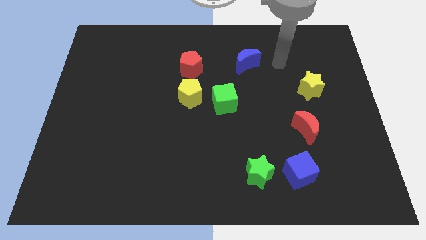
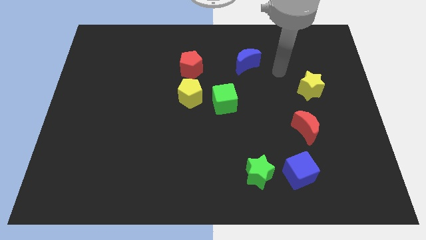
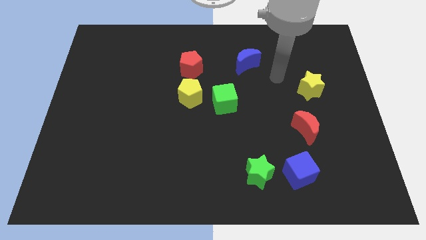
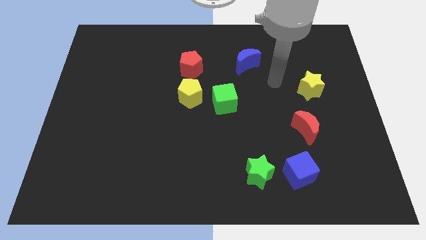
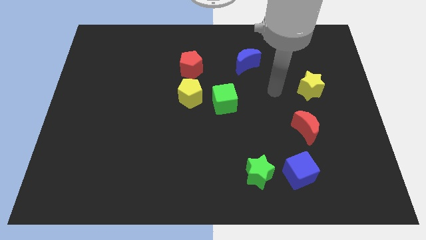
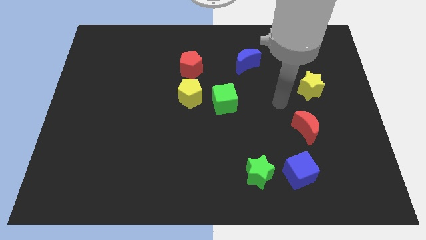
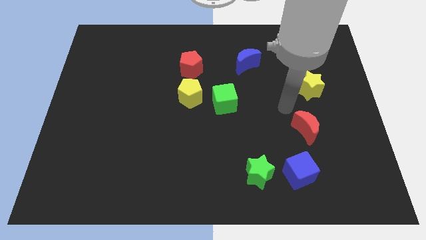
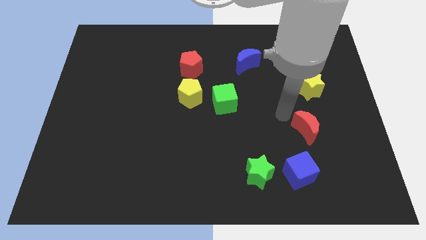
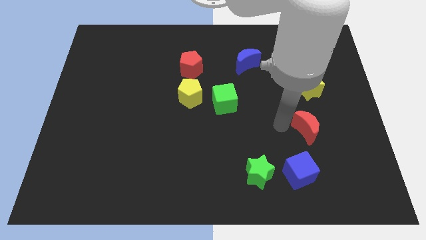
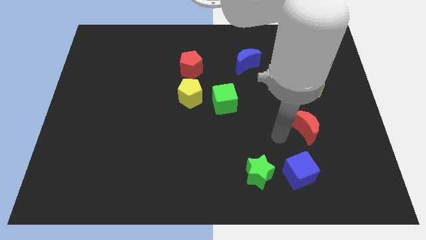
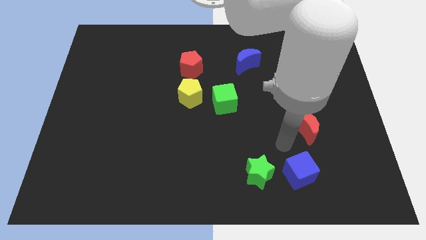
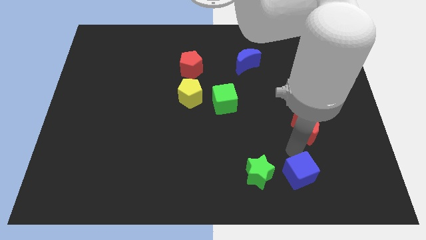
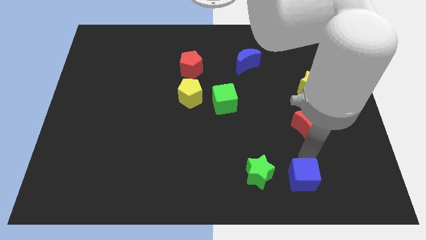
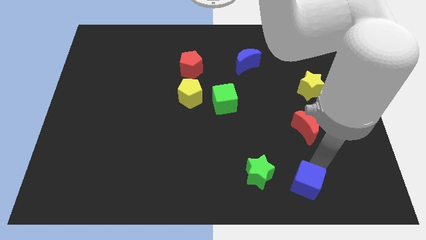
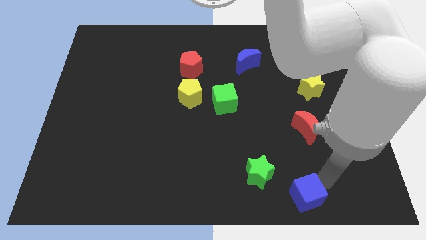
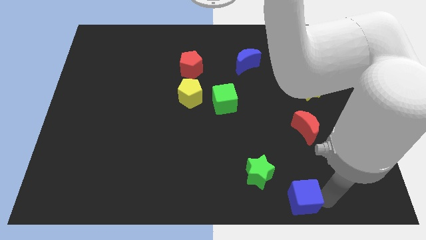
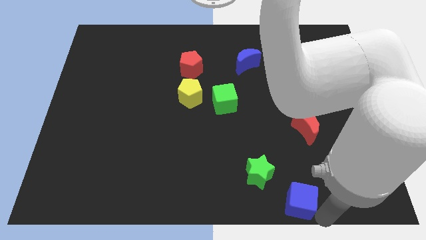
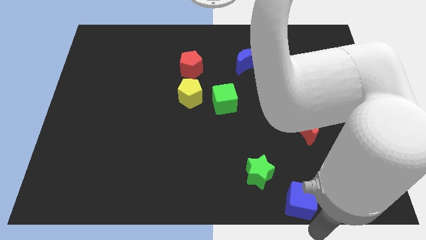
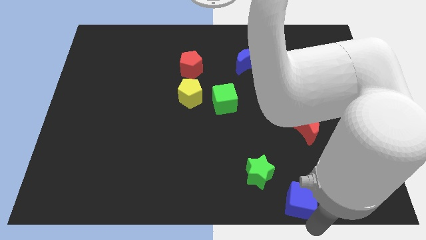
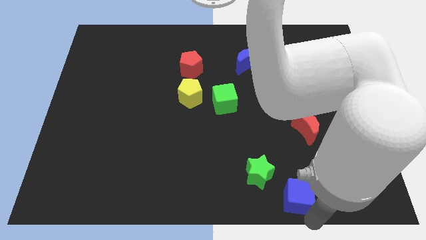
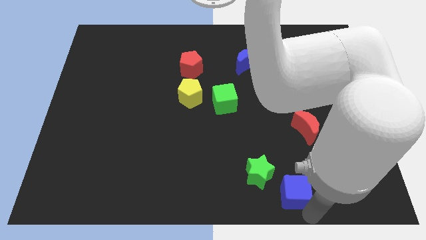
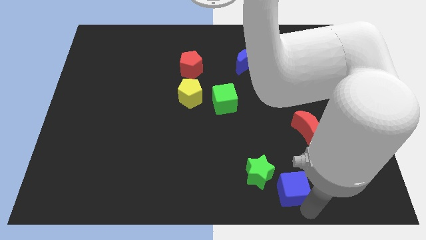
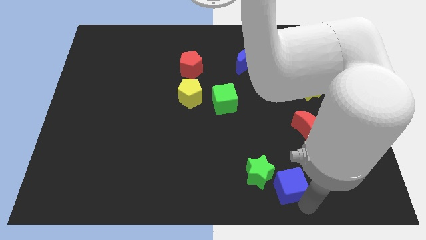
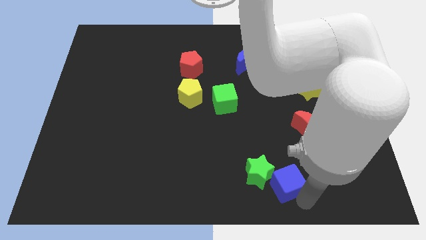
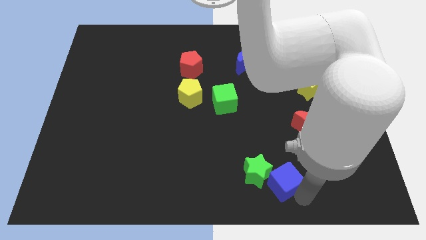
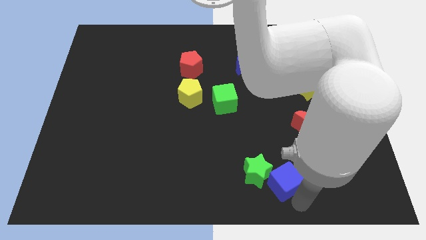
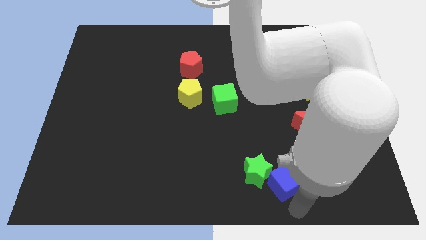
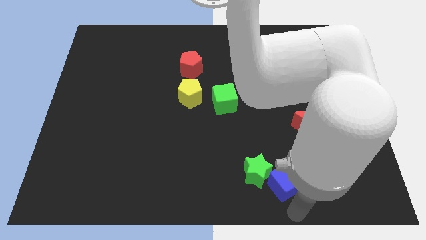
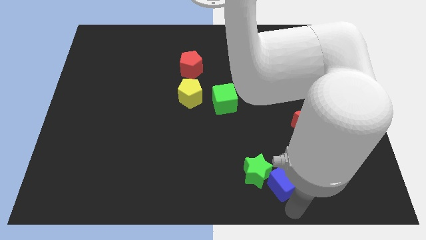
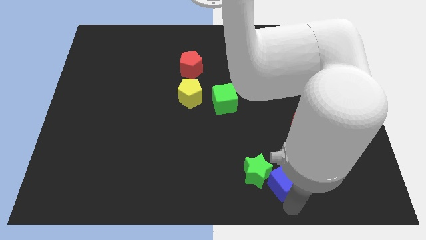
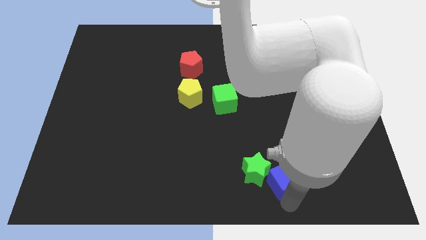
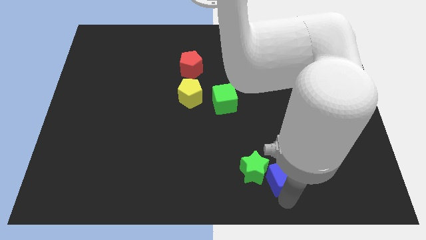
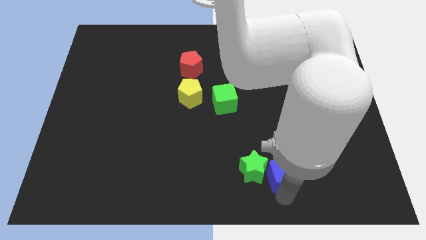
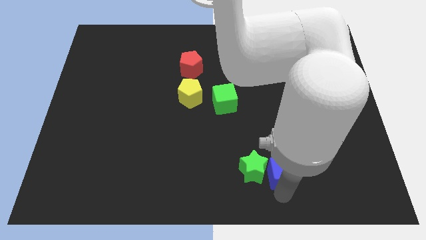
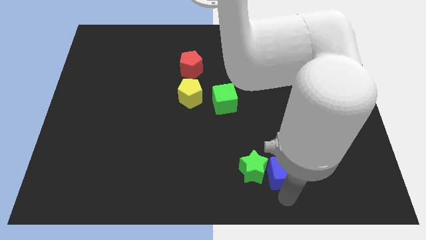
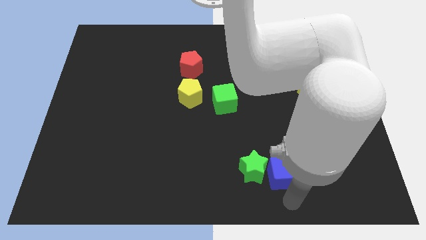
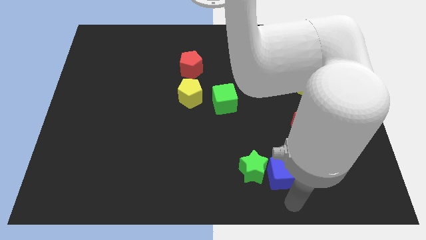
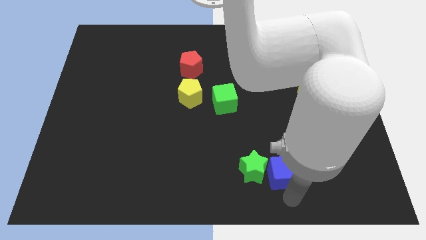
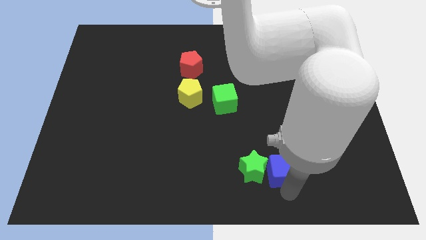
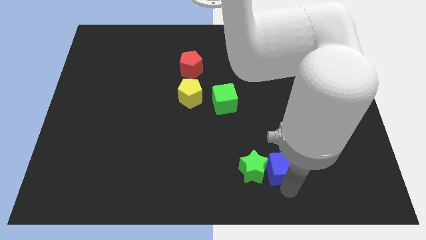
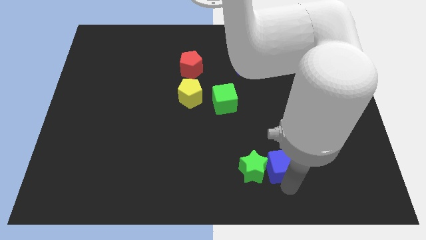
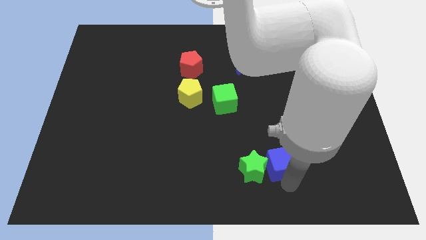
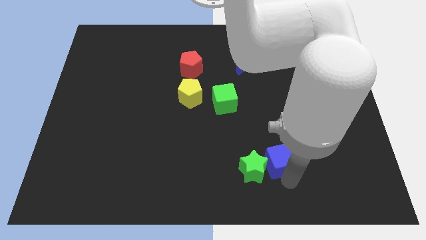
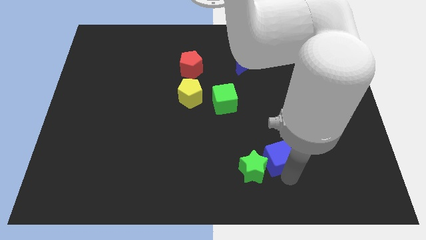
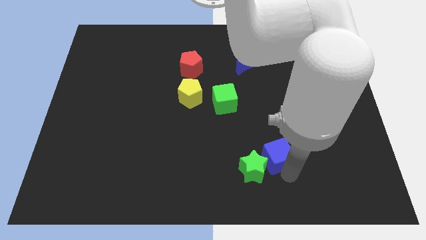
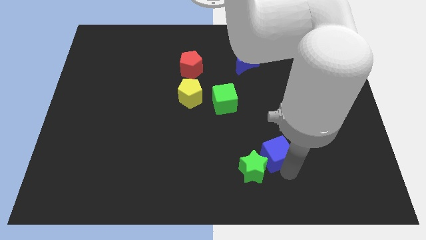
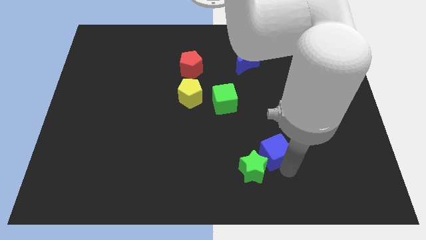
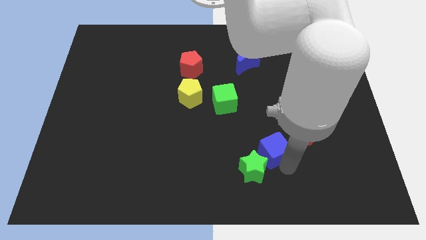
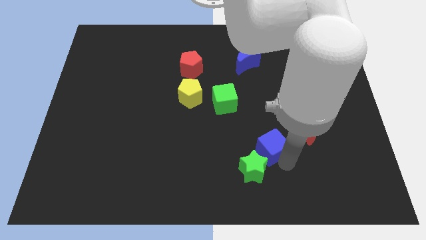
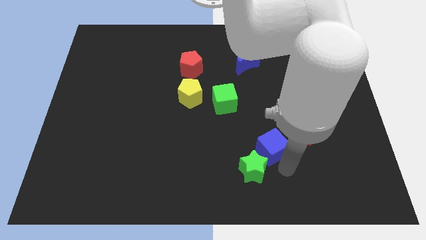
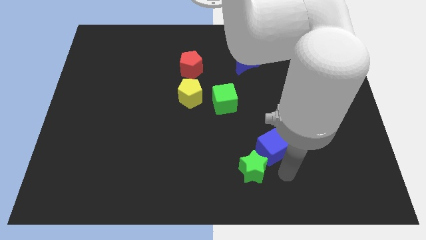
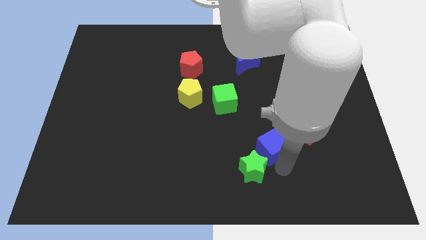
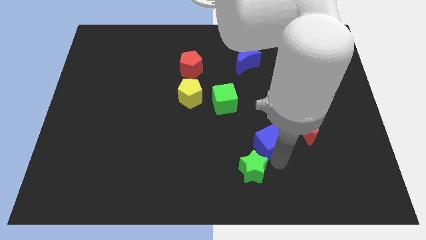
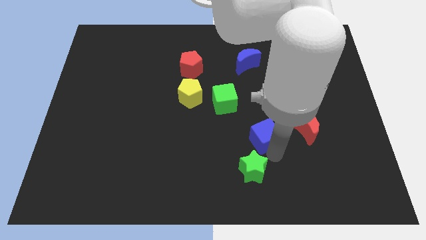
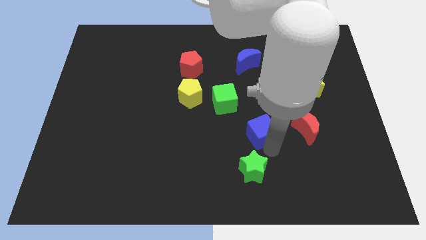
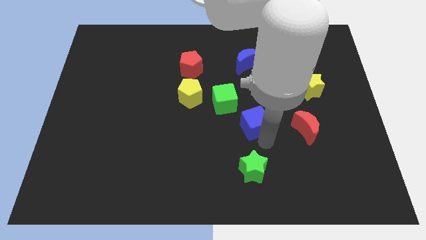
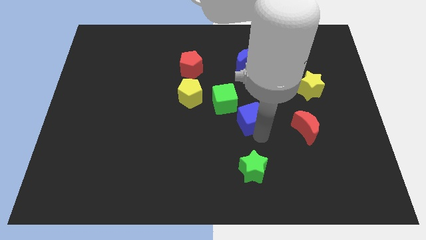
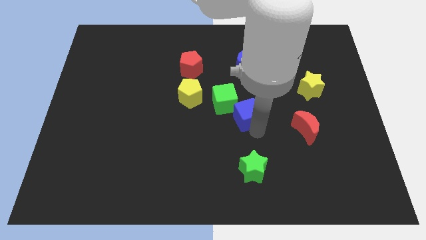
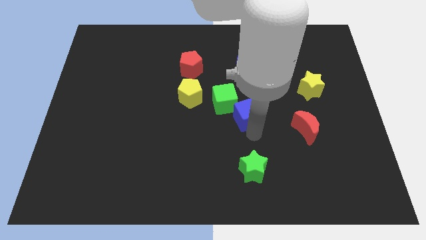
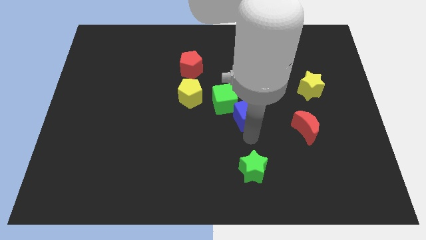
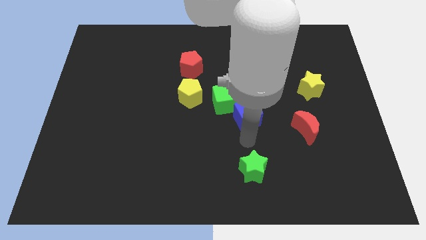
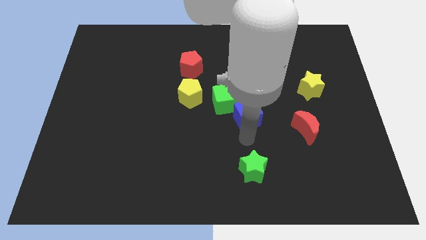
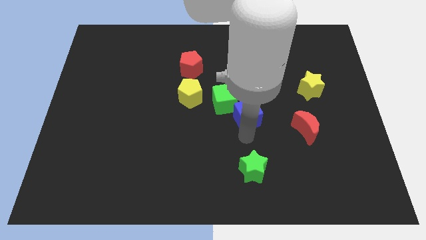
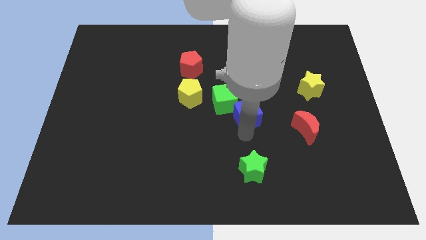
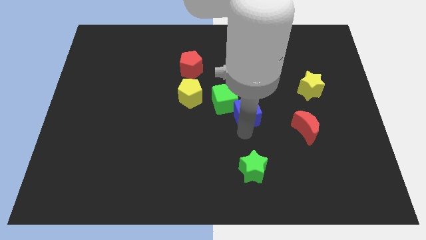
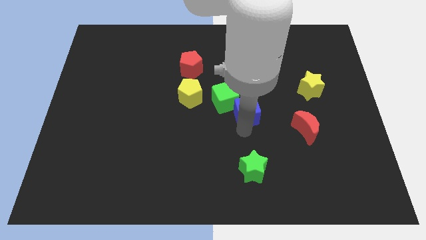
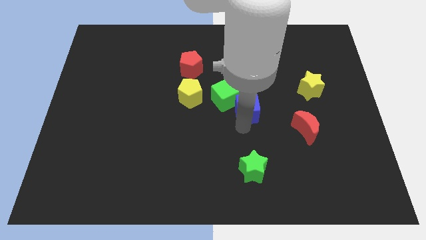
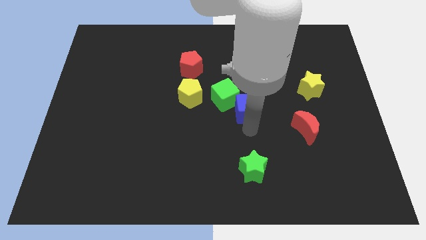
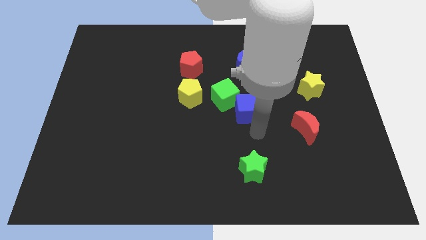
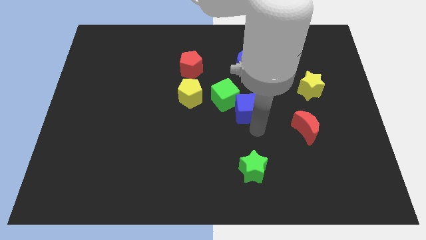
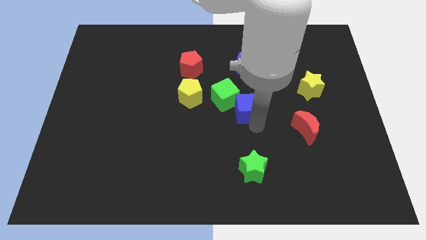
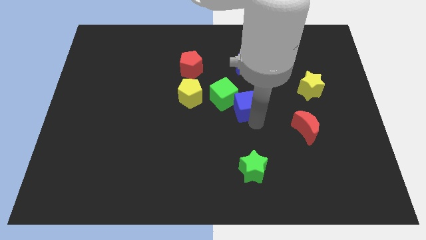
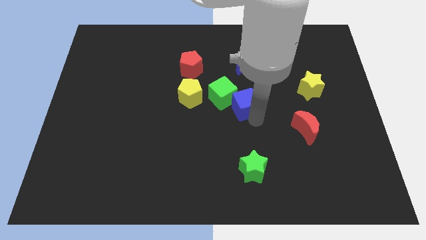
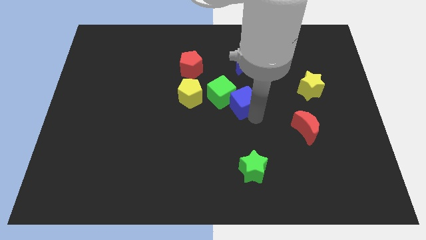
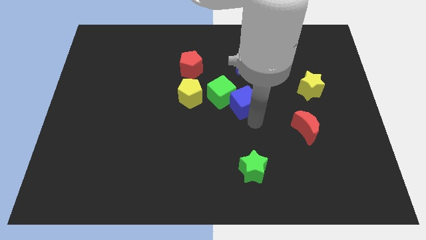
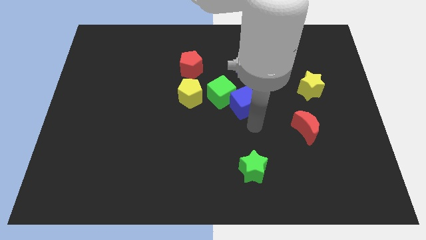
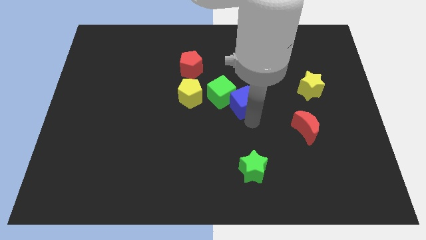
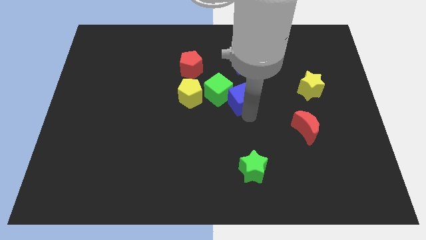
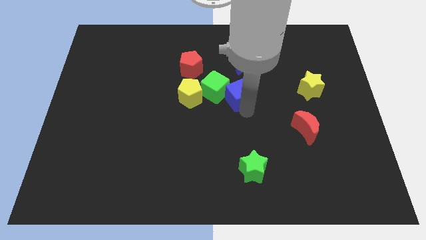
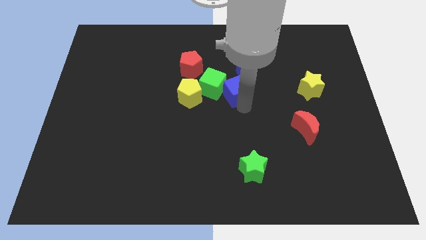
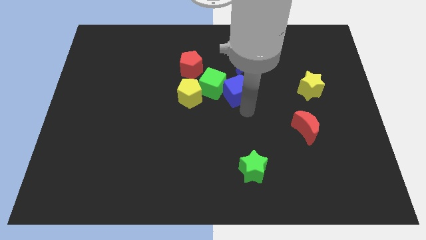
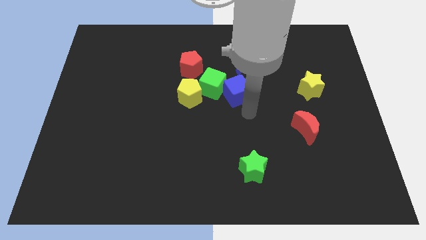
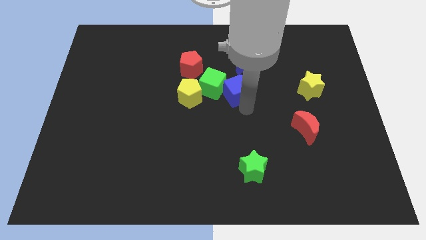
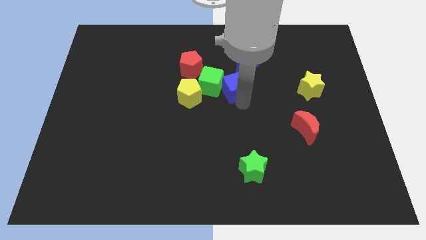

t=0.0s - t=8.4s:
put the blue cube to the bottom left of the blue moon
